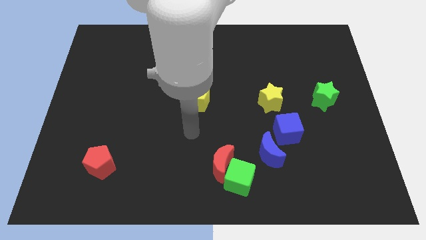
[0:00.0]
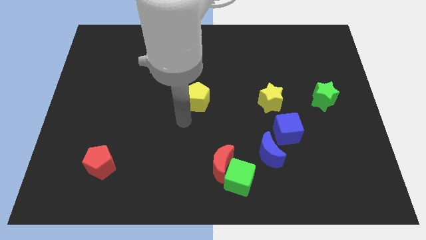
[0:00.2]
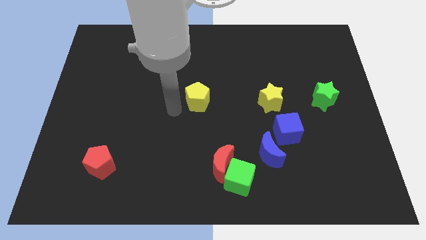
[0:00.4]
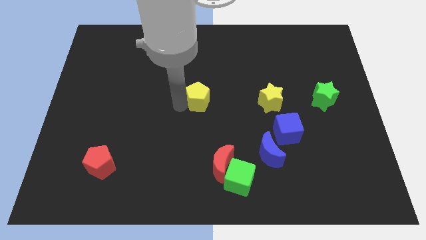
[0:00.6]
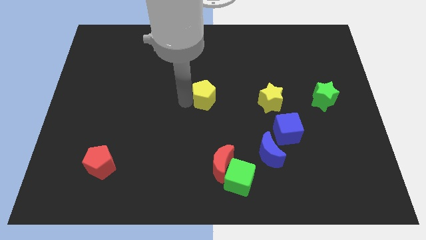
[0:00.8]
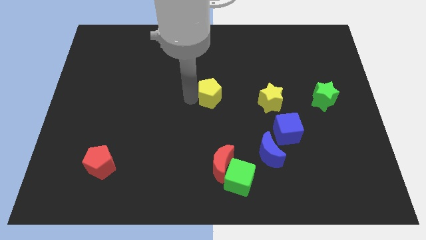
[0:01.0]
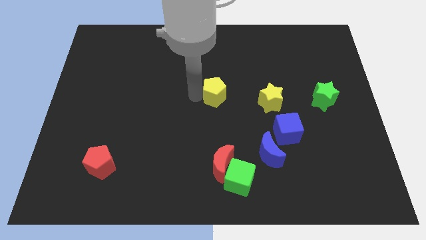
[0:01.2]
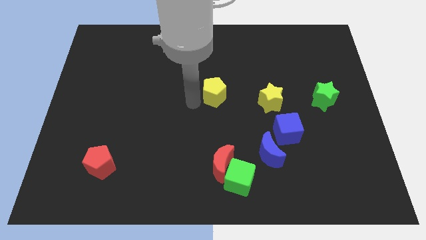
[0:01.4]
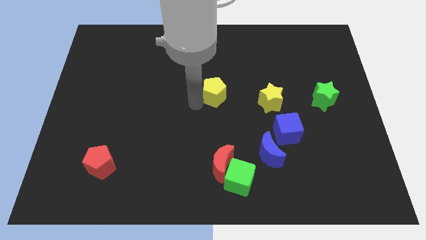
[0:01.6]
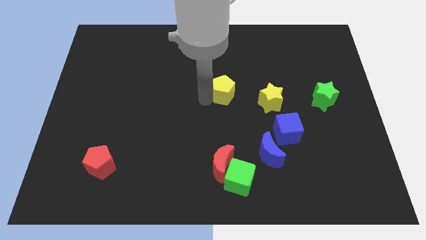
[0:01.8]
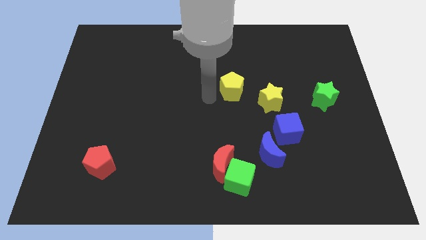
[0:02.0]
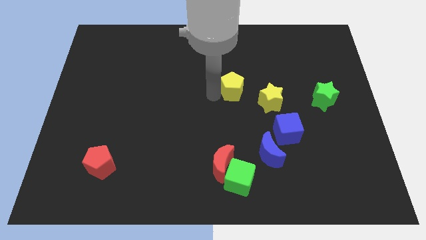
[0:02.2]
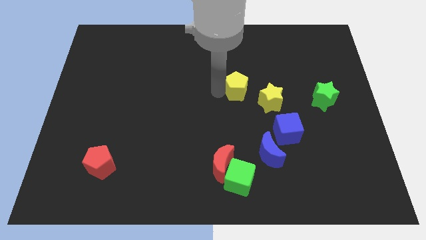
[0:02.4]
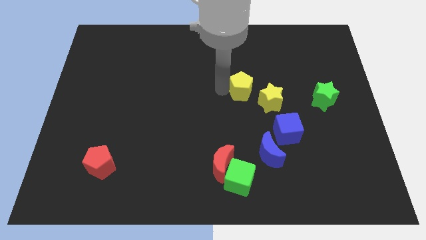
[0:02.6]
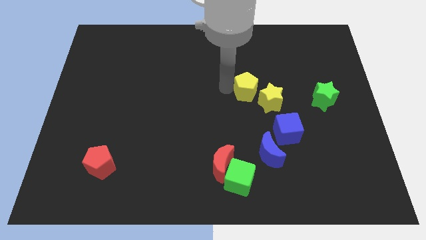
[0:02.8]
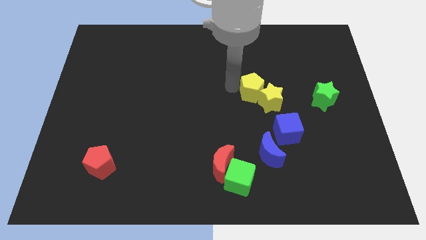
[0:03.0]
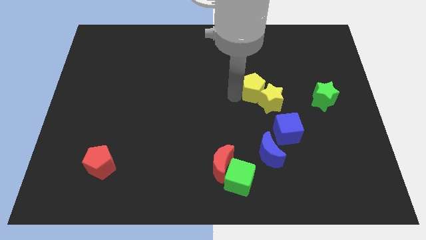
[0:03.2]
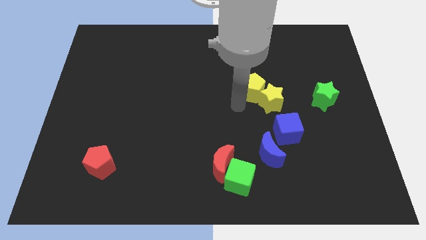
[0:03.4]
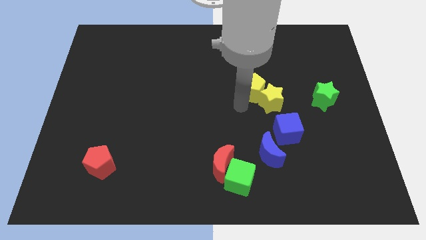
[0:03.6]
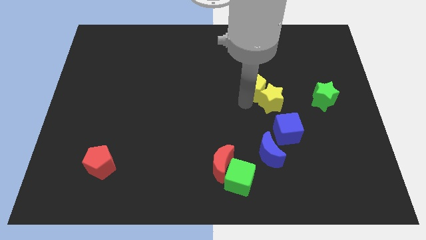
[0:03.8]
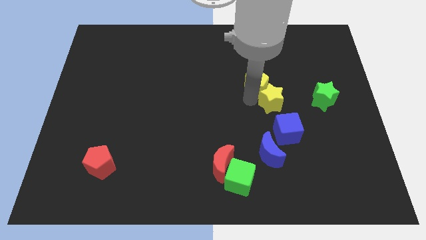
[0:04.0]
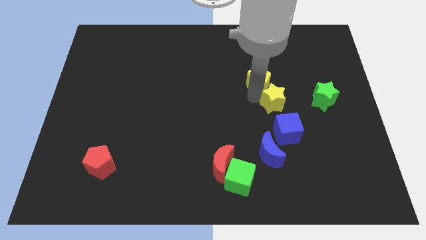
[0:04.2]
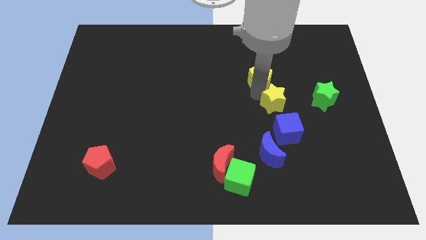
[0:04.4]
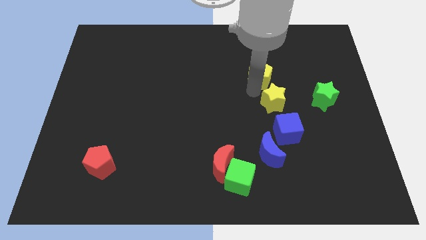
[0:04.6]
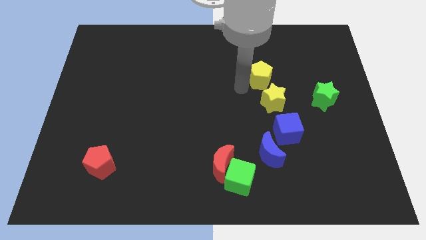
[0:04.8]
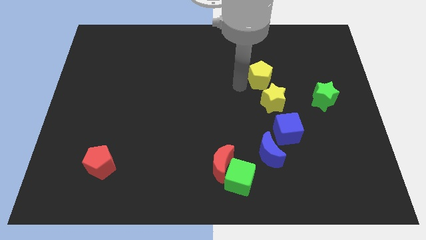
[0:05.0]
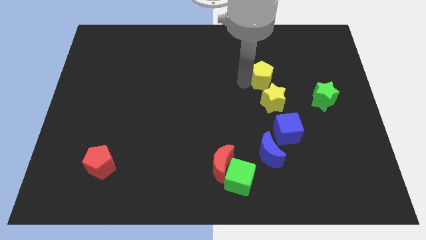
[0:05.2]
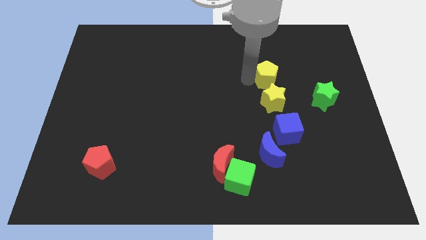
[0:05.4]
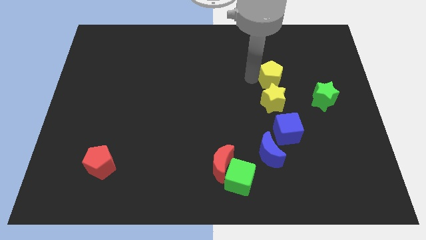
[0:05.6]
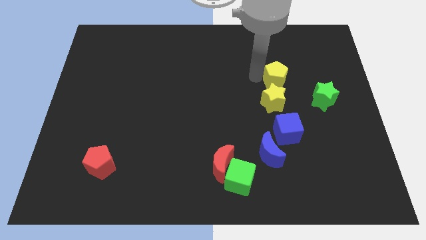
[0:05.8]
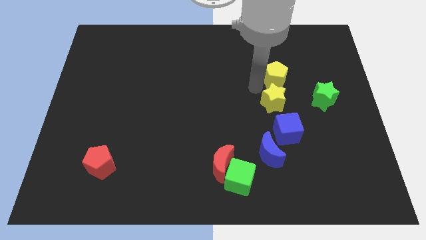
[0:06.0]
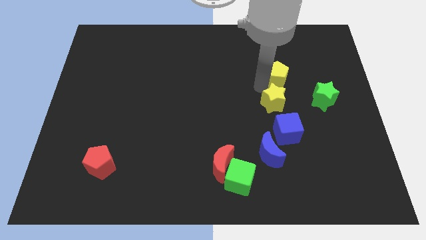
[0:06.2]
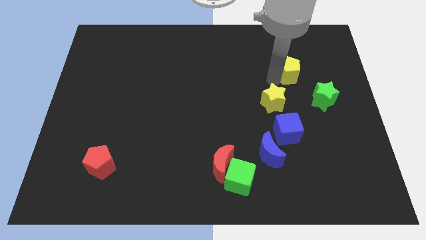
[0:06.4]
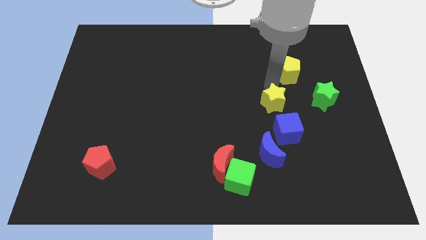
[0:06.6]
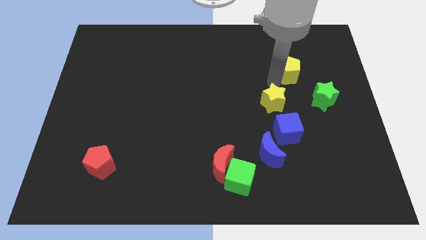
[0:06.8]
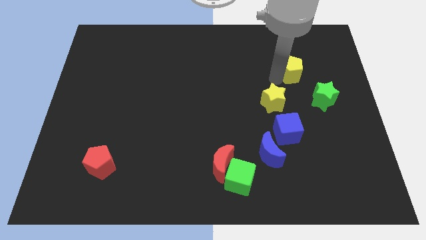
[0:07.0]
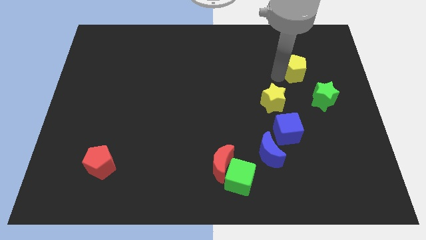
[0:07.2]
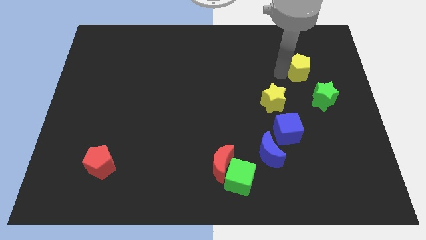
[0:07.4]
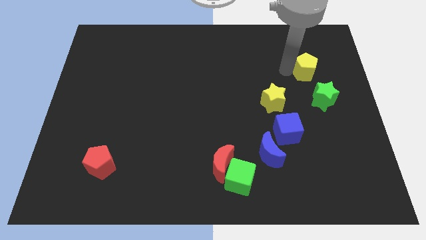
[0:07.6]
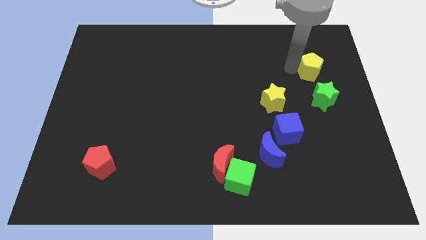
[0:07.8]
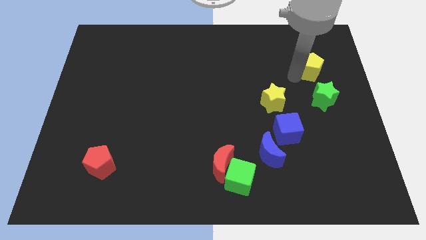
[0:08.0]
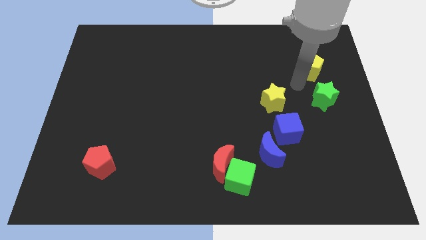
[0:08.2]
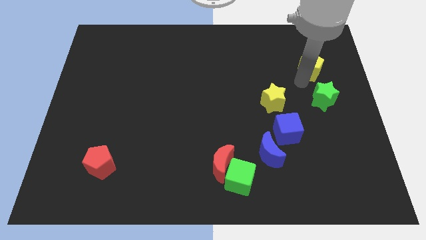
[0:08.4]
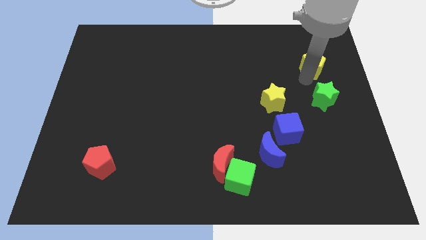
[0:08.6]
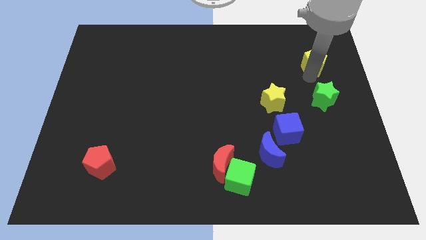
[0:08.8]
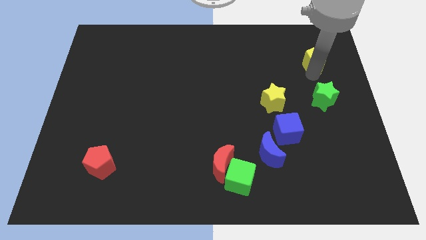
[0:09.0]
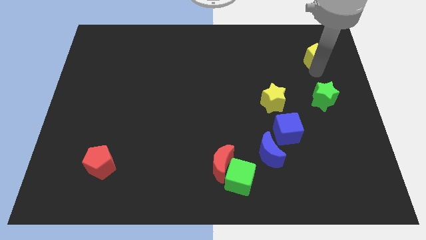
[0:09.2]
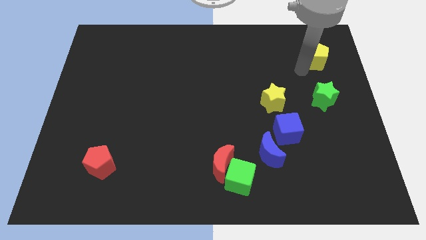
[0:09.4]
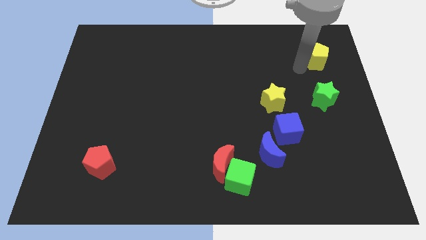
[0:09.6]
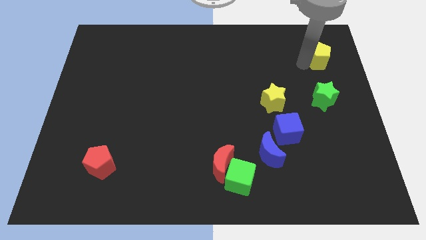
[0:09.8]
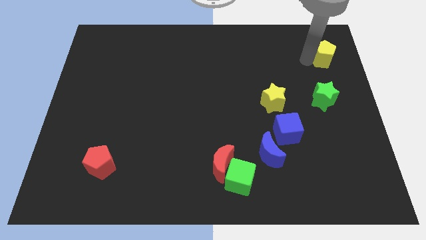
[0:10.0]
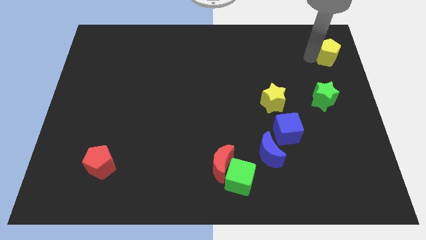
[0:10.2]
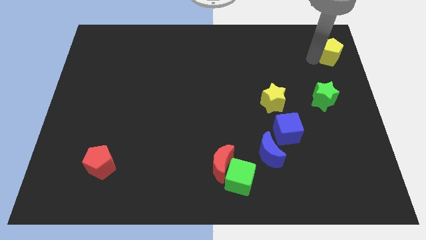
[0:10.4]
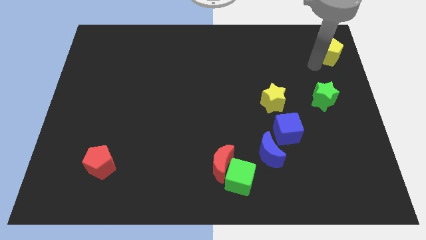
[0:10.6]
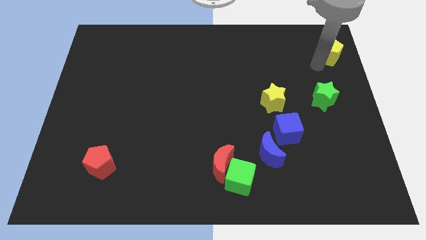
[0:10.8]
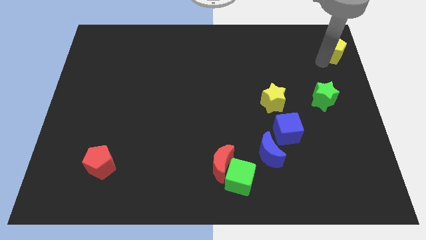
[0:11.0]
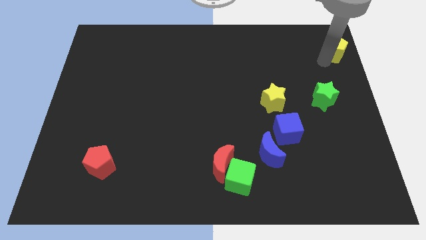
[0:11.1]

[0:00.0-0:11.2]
move the yellow pentagon to the top right of the board

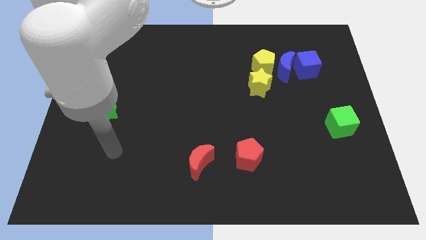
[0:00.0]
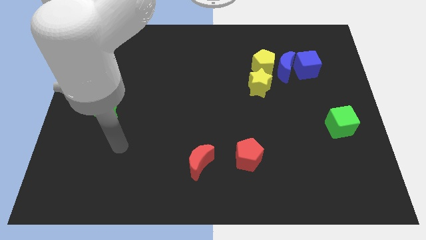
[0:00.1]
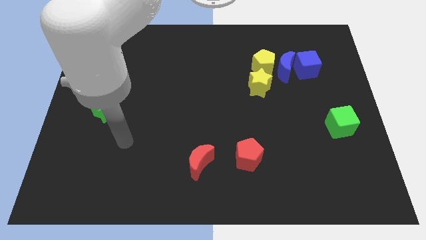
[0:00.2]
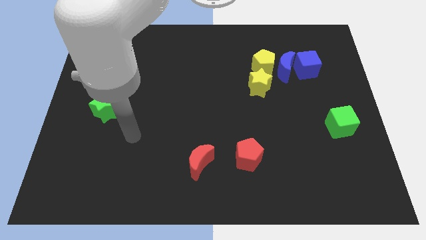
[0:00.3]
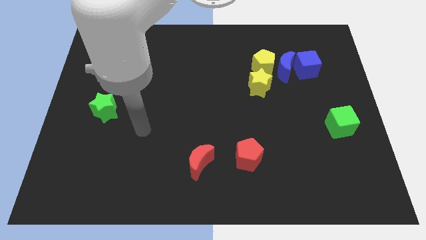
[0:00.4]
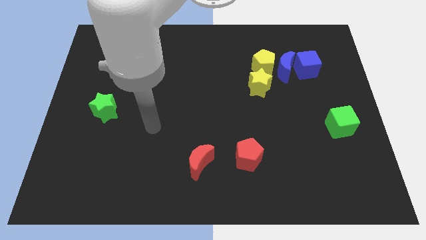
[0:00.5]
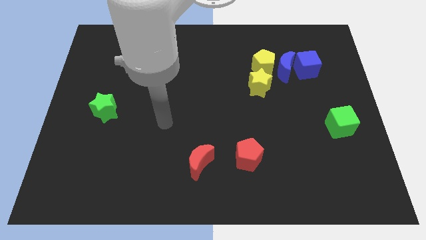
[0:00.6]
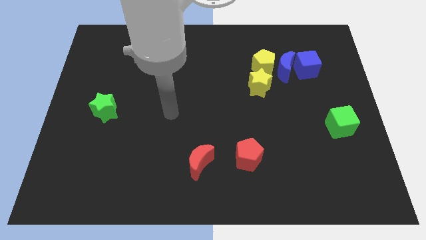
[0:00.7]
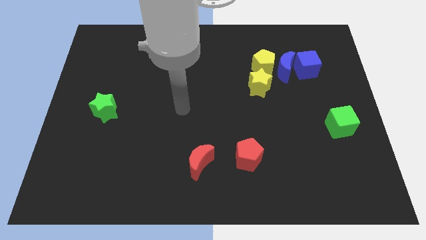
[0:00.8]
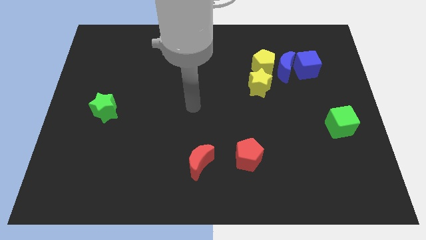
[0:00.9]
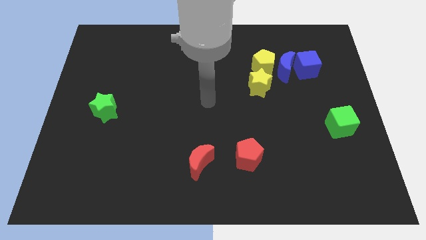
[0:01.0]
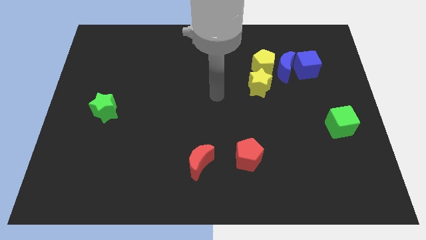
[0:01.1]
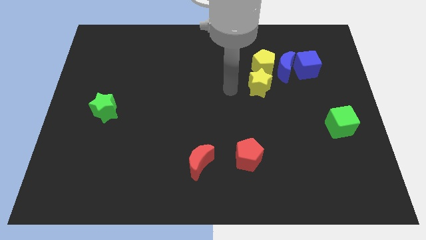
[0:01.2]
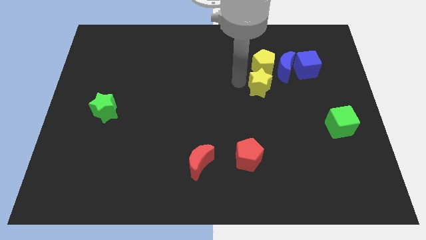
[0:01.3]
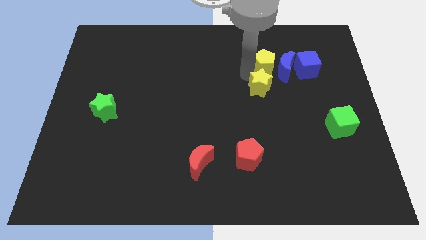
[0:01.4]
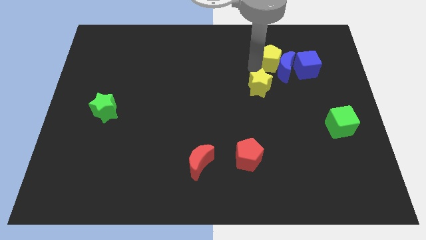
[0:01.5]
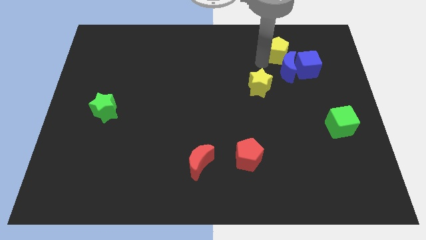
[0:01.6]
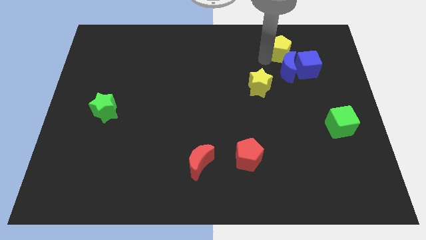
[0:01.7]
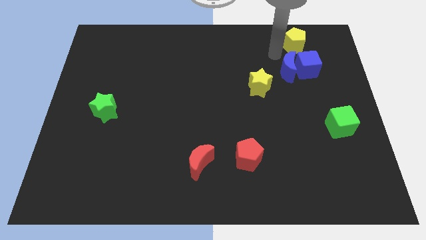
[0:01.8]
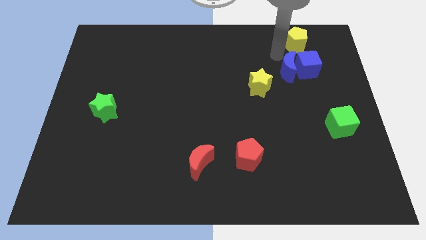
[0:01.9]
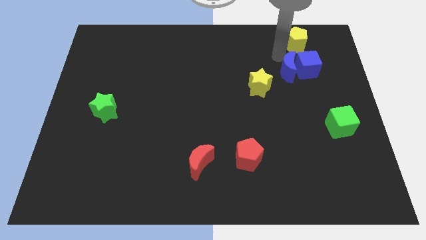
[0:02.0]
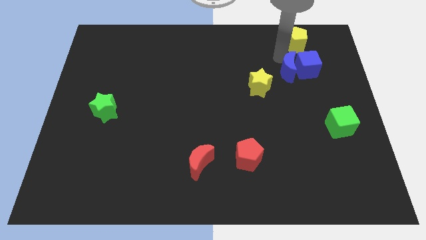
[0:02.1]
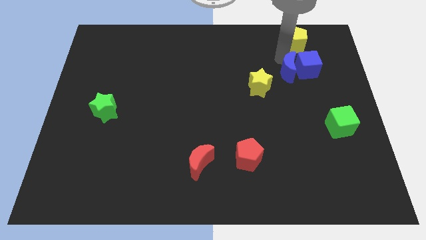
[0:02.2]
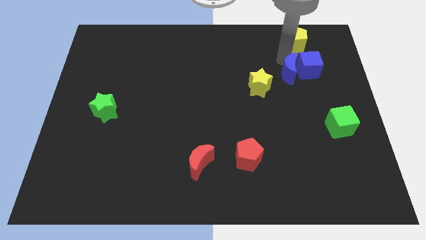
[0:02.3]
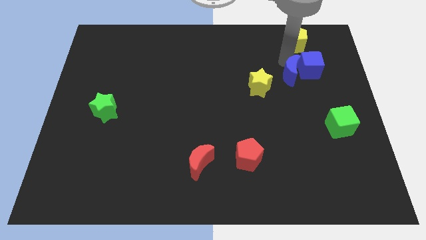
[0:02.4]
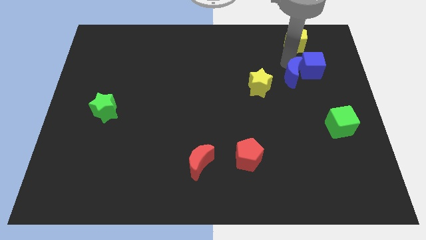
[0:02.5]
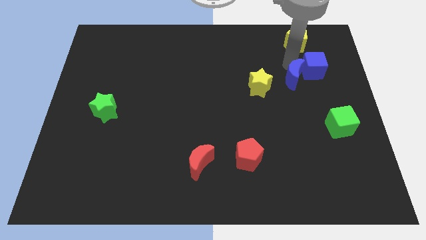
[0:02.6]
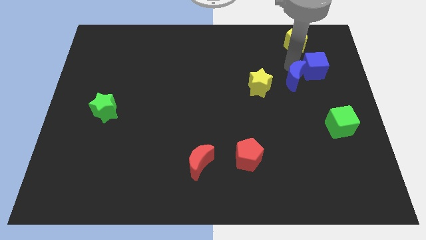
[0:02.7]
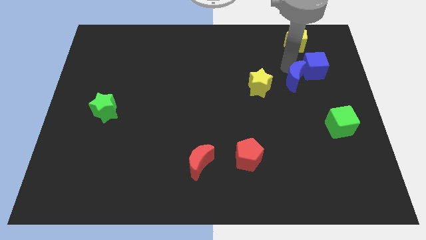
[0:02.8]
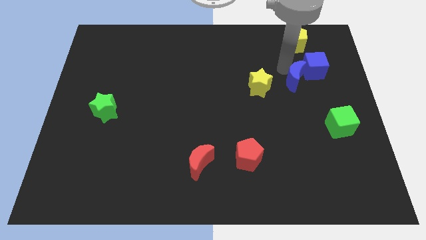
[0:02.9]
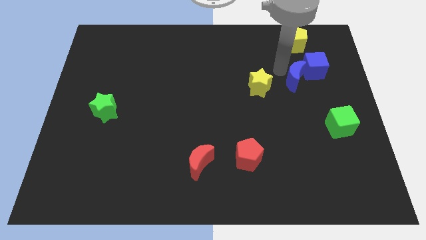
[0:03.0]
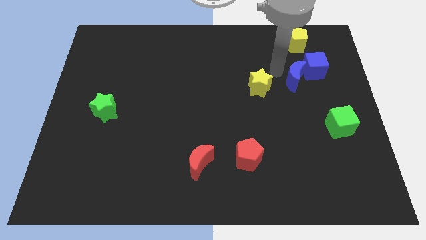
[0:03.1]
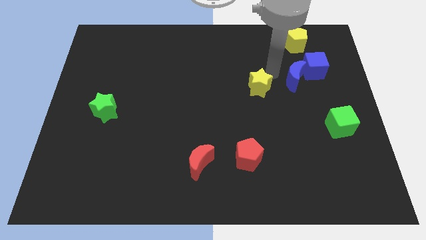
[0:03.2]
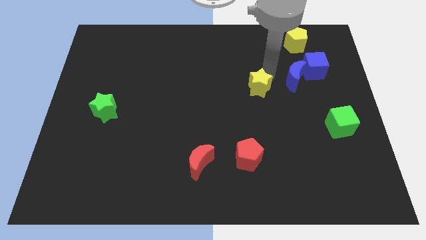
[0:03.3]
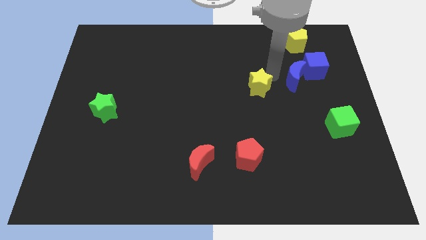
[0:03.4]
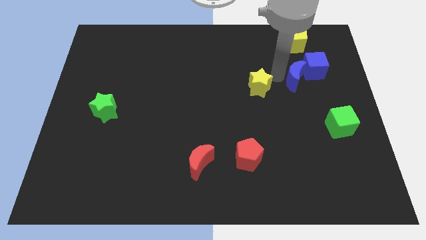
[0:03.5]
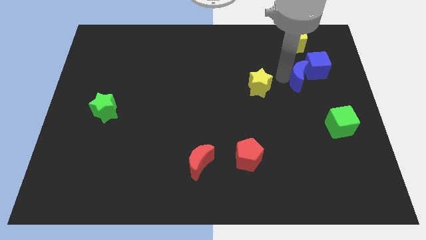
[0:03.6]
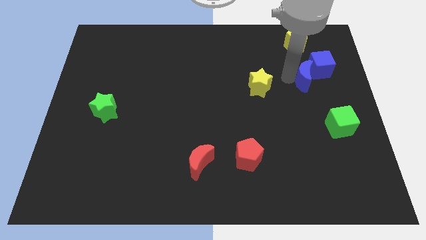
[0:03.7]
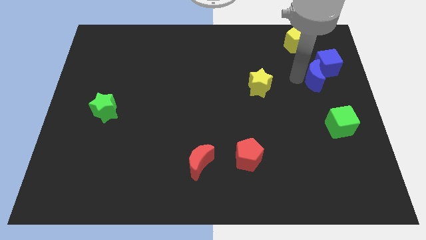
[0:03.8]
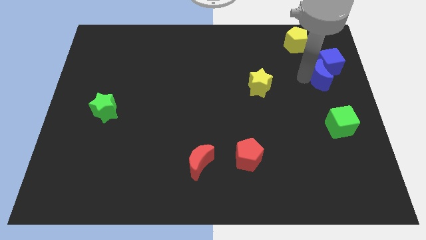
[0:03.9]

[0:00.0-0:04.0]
move the blue moon to the right side of the board
